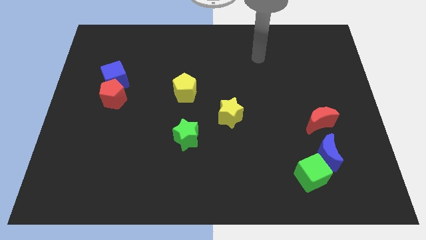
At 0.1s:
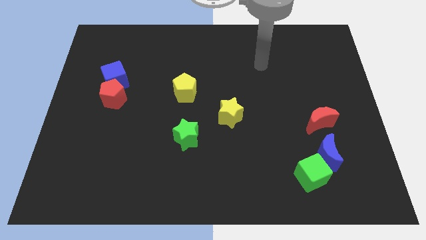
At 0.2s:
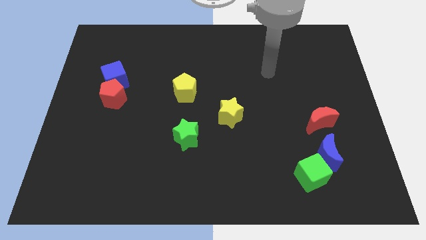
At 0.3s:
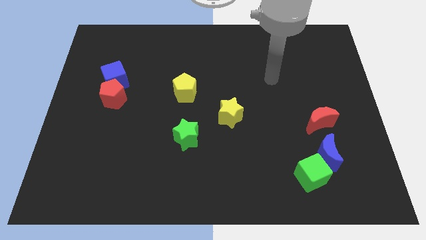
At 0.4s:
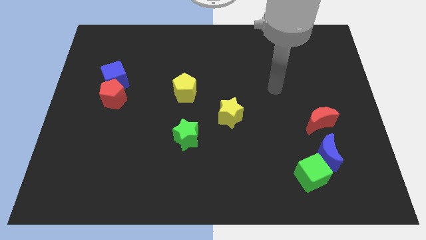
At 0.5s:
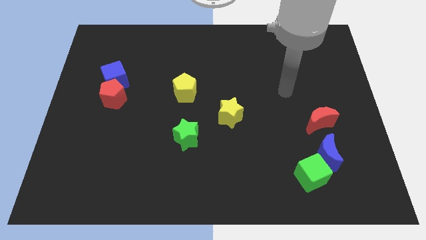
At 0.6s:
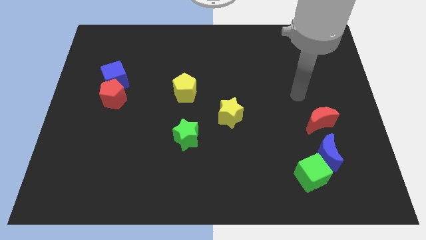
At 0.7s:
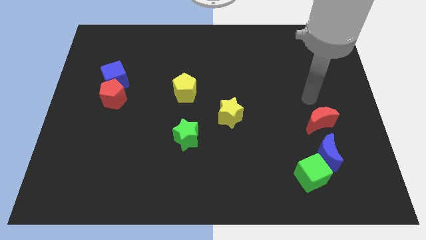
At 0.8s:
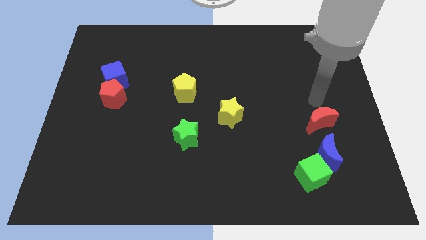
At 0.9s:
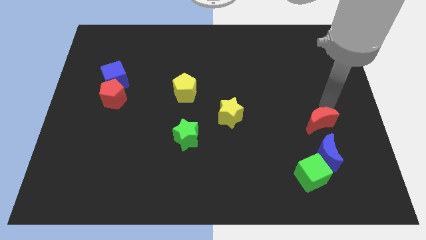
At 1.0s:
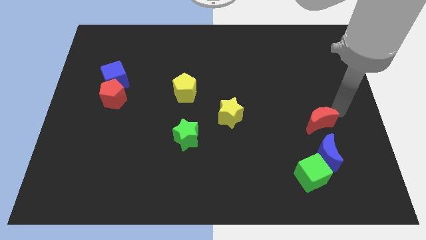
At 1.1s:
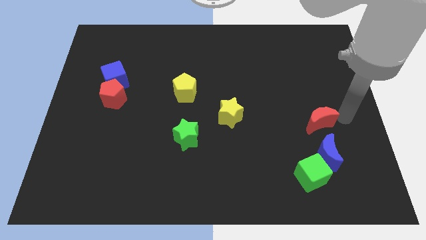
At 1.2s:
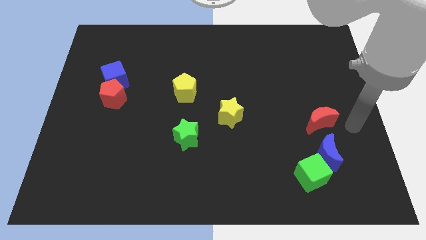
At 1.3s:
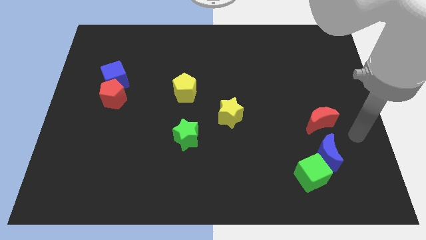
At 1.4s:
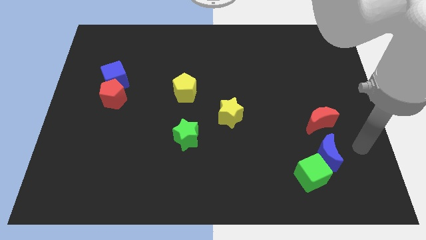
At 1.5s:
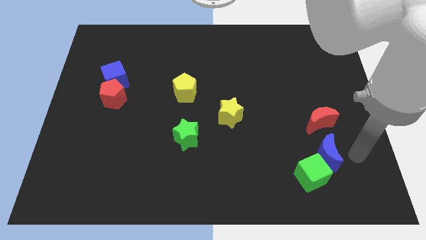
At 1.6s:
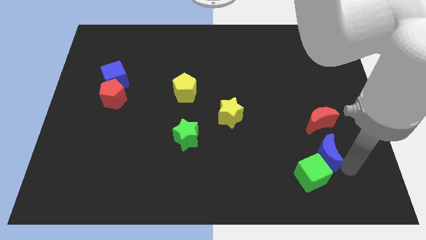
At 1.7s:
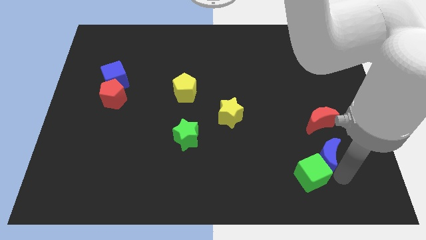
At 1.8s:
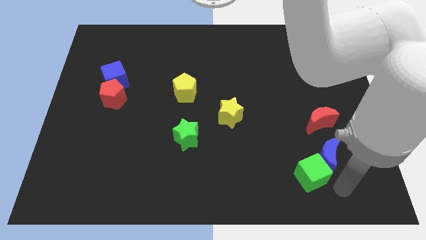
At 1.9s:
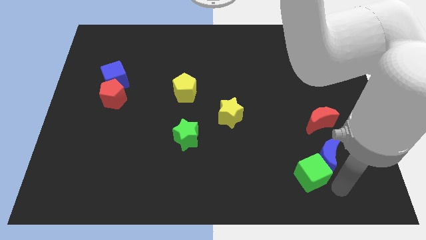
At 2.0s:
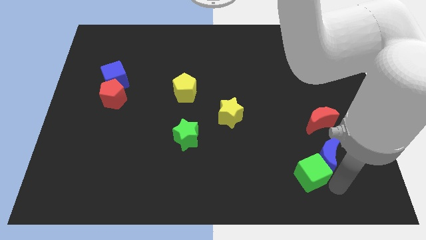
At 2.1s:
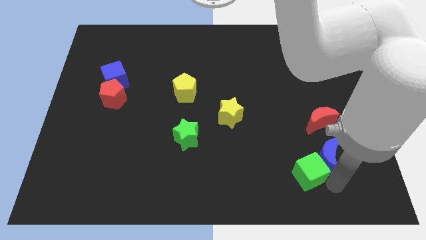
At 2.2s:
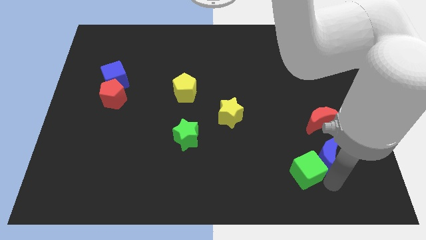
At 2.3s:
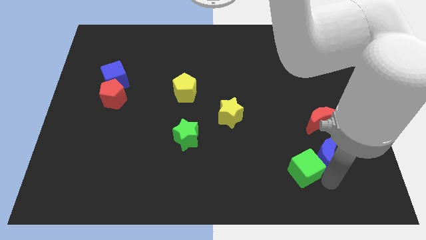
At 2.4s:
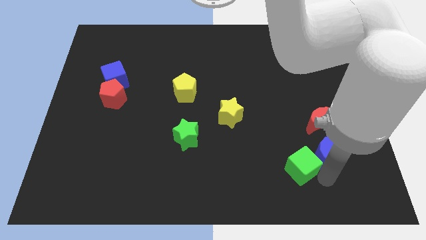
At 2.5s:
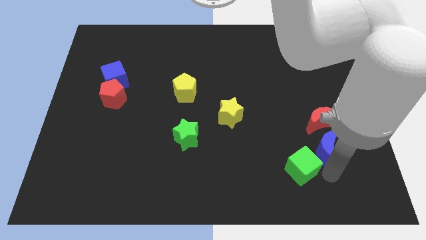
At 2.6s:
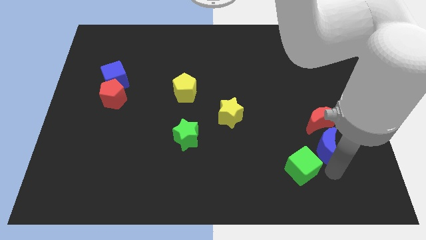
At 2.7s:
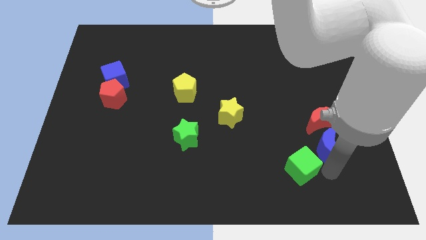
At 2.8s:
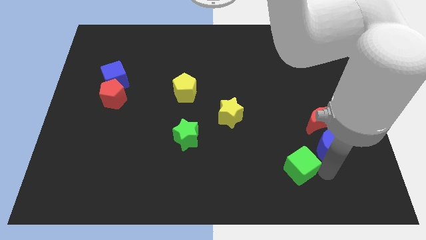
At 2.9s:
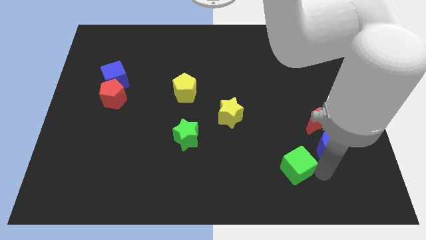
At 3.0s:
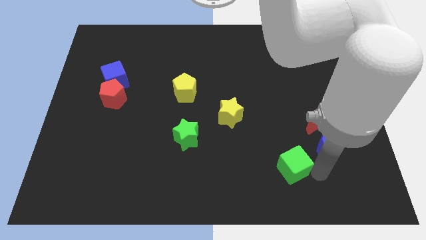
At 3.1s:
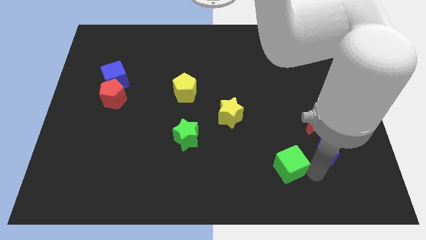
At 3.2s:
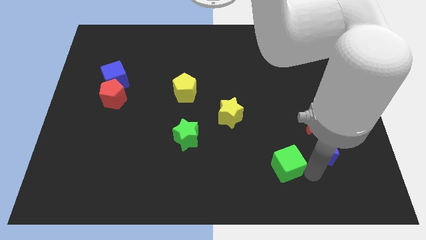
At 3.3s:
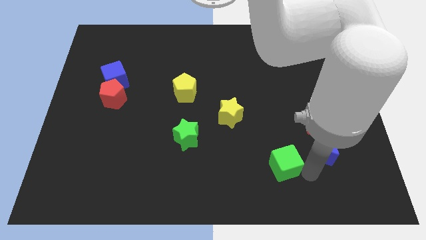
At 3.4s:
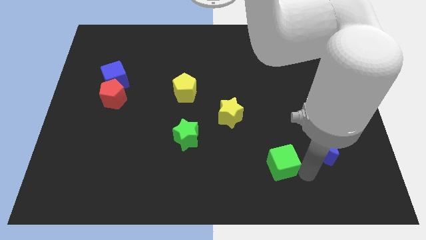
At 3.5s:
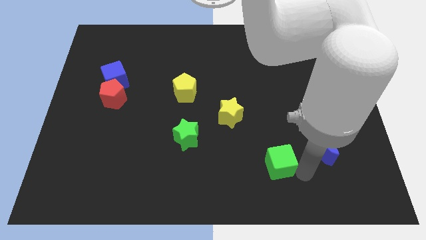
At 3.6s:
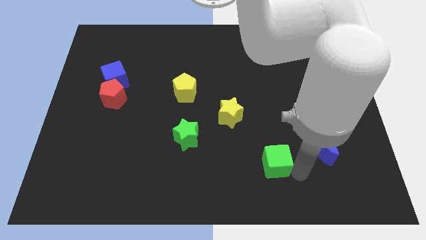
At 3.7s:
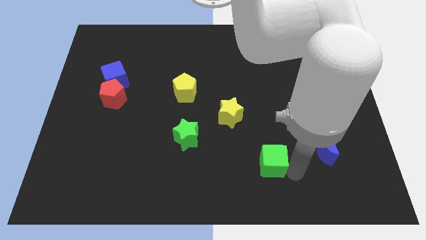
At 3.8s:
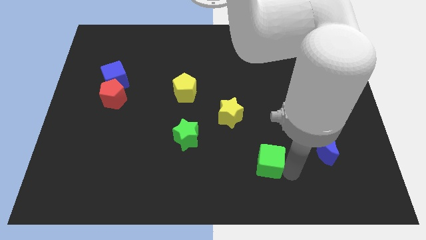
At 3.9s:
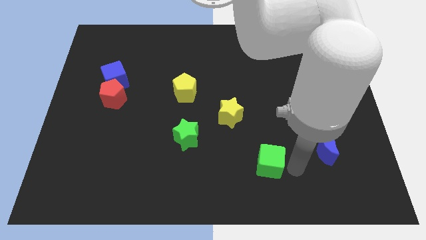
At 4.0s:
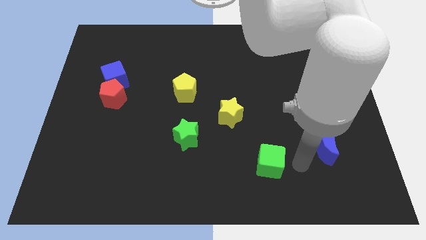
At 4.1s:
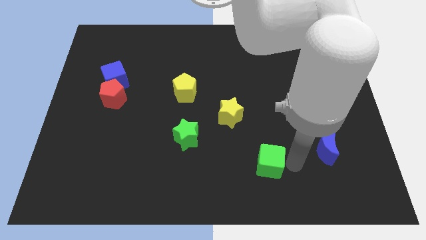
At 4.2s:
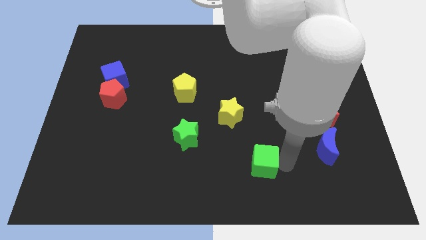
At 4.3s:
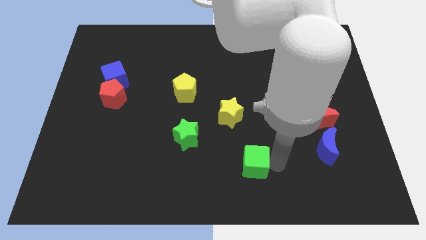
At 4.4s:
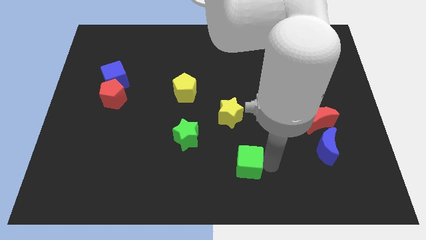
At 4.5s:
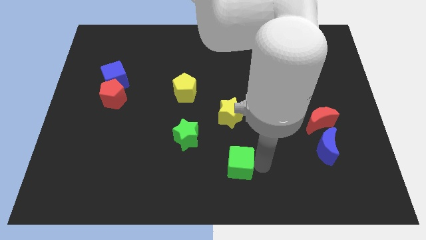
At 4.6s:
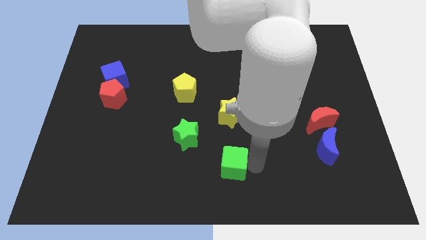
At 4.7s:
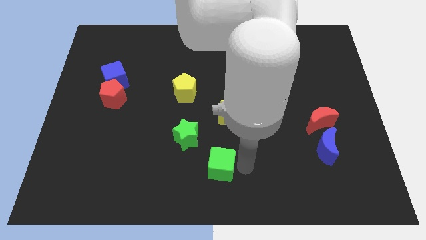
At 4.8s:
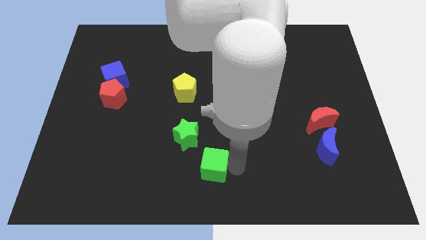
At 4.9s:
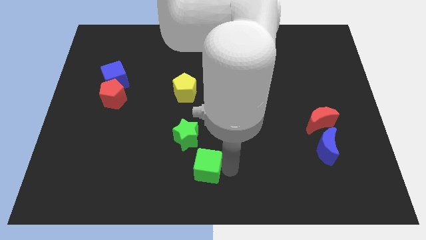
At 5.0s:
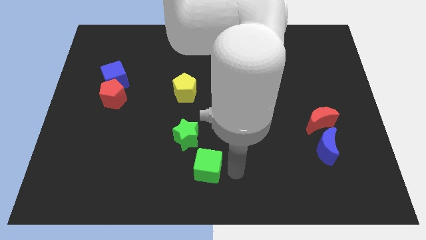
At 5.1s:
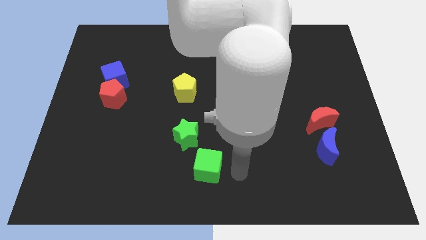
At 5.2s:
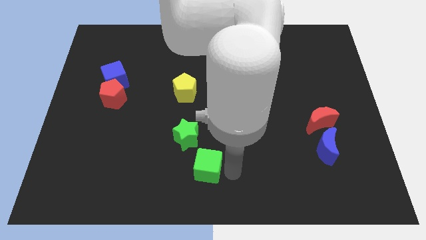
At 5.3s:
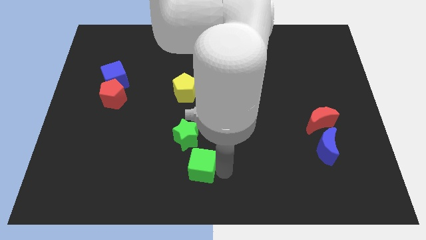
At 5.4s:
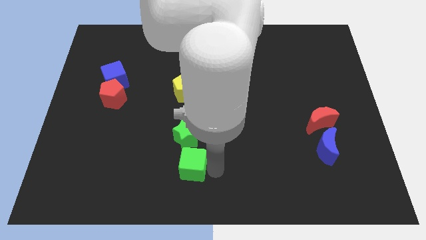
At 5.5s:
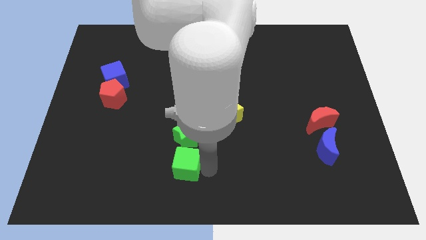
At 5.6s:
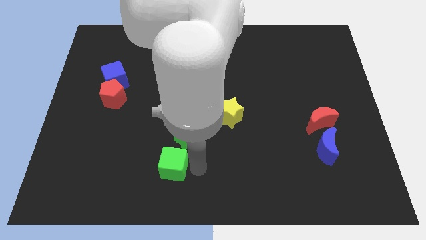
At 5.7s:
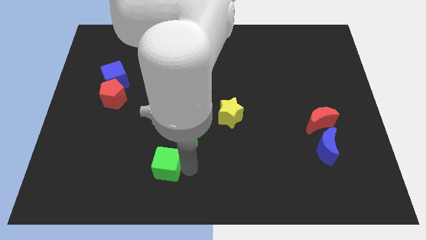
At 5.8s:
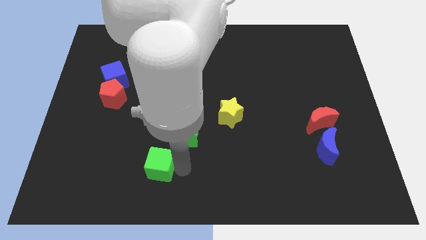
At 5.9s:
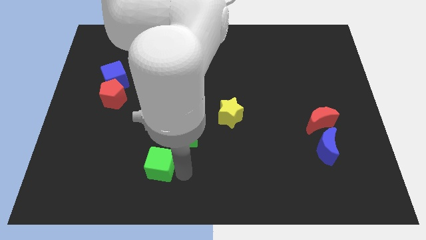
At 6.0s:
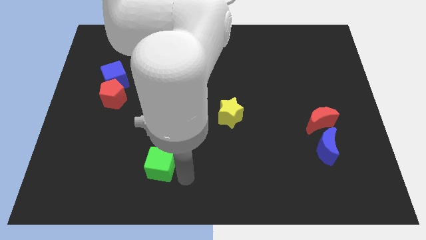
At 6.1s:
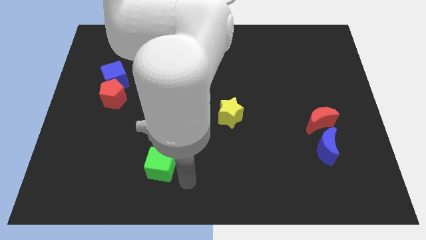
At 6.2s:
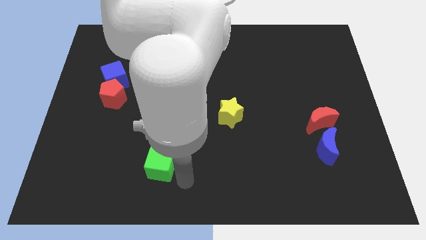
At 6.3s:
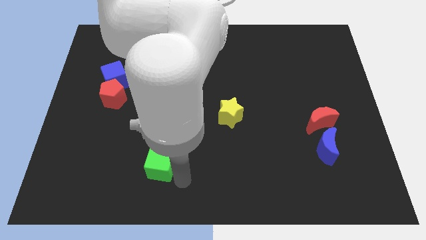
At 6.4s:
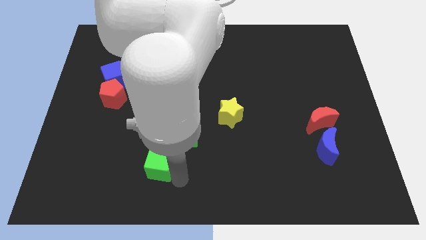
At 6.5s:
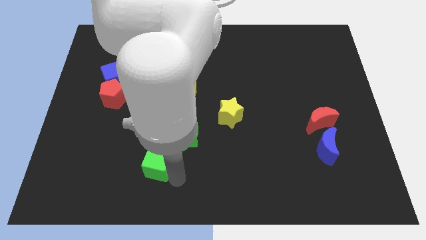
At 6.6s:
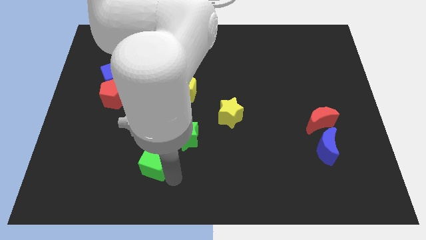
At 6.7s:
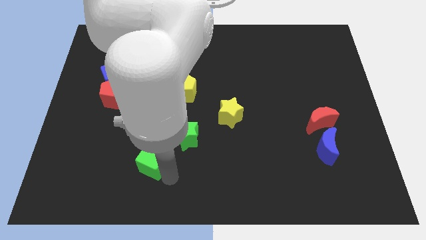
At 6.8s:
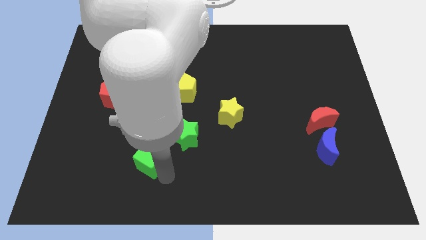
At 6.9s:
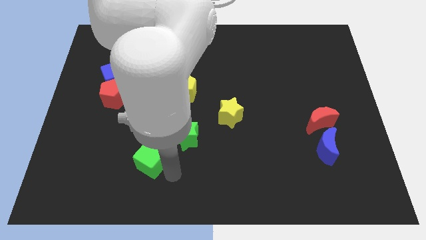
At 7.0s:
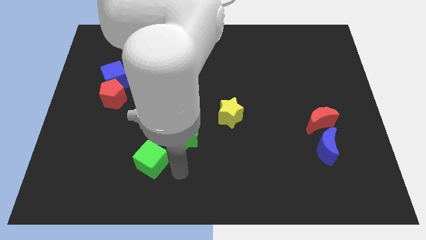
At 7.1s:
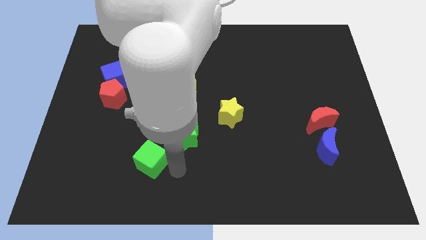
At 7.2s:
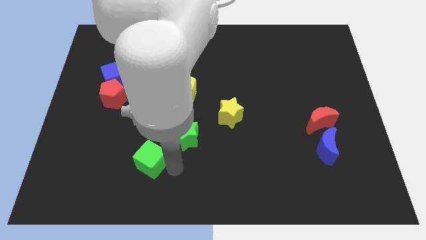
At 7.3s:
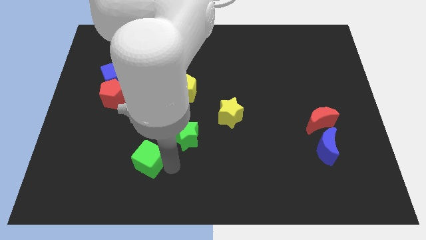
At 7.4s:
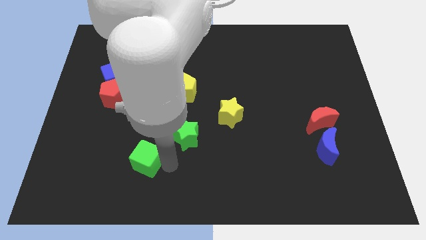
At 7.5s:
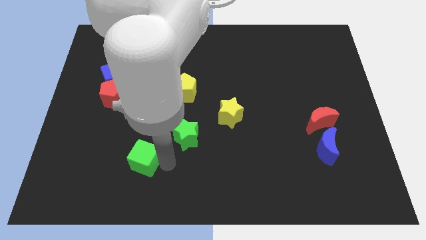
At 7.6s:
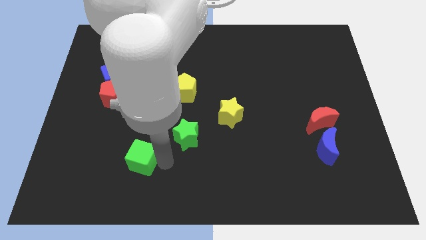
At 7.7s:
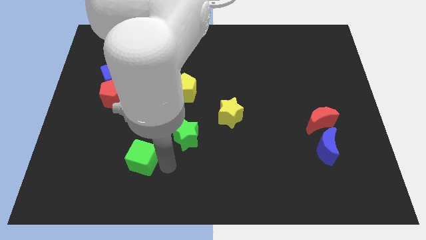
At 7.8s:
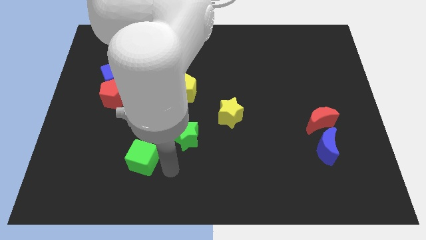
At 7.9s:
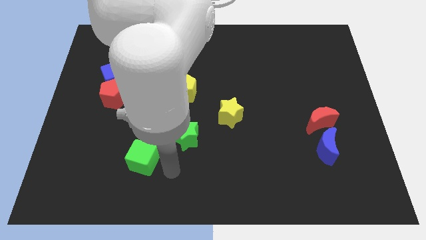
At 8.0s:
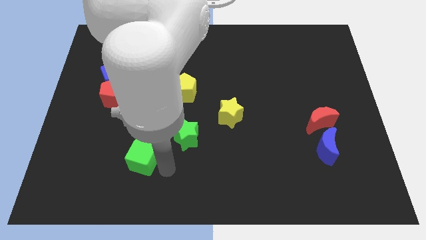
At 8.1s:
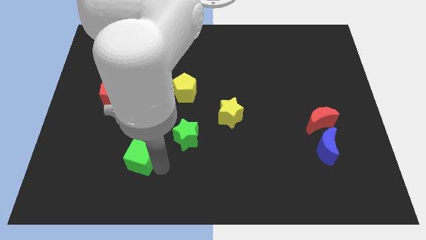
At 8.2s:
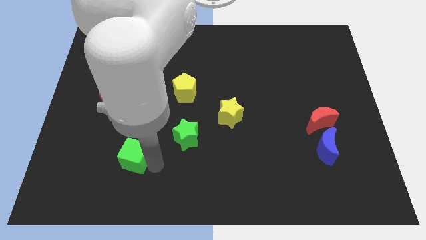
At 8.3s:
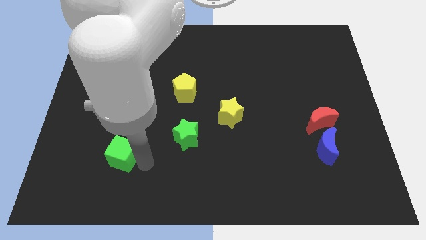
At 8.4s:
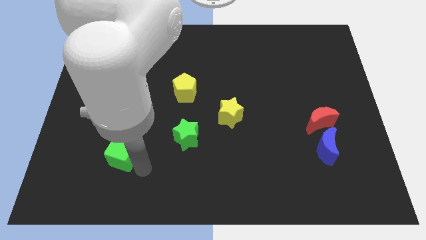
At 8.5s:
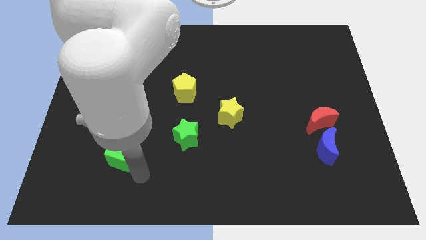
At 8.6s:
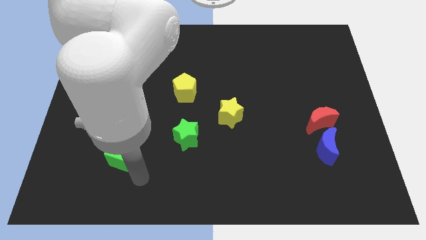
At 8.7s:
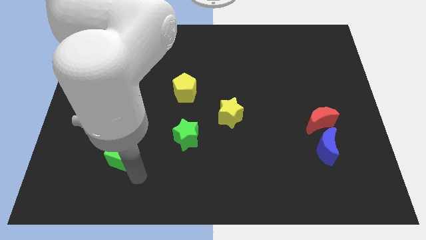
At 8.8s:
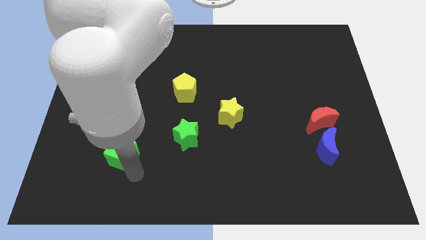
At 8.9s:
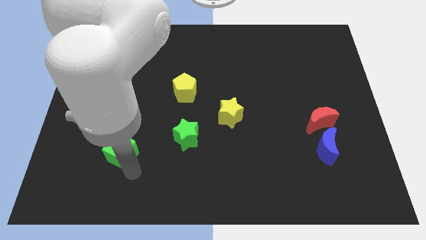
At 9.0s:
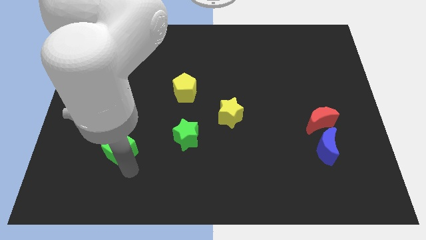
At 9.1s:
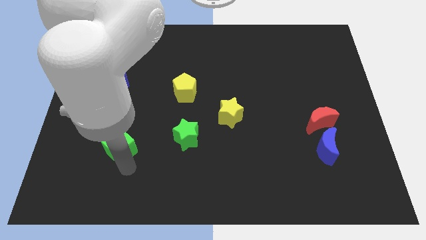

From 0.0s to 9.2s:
push the green cube to the bottom of the red pentagon
